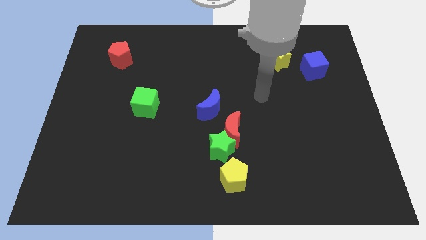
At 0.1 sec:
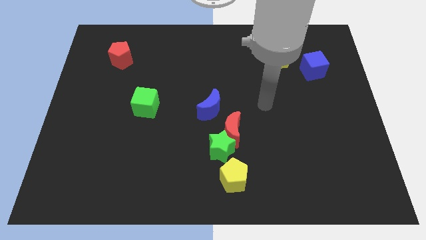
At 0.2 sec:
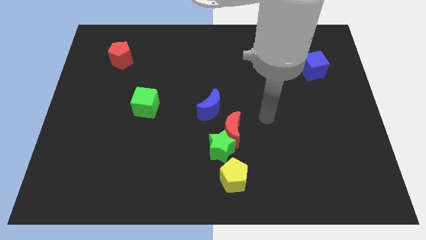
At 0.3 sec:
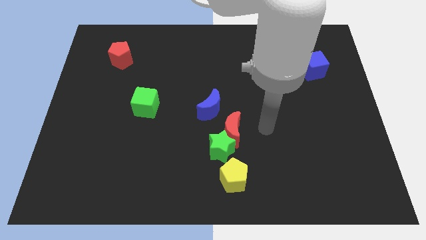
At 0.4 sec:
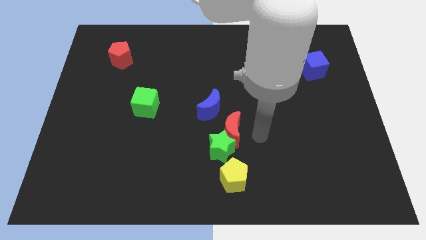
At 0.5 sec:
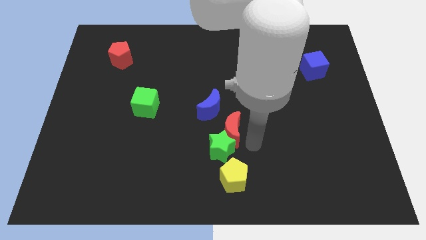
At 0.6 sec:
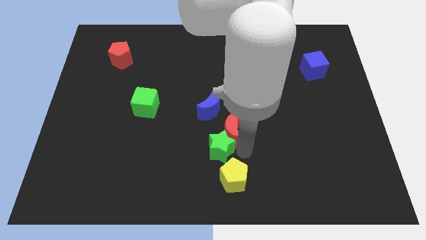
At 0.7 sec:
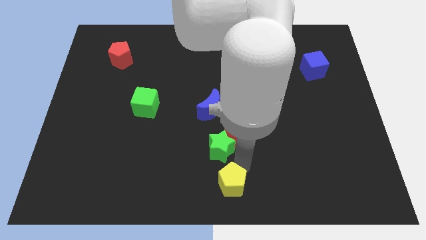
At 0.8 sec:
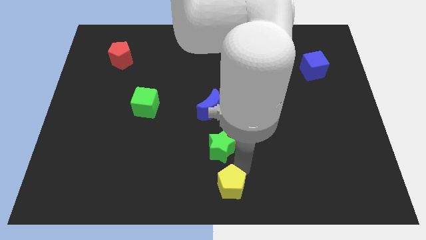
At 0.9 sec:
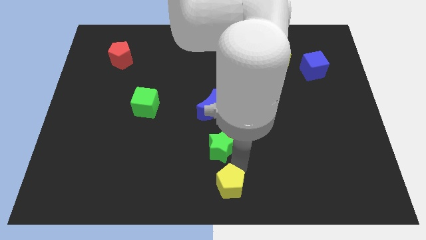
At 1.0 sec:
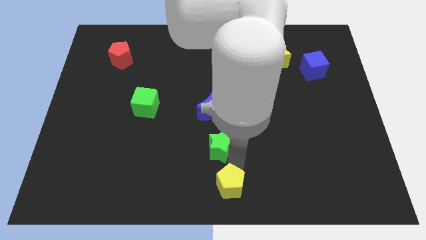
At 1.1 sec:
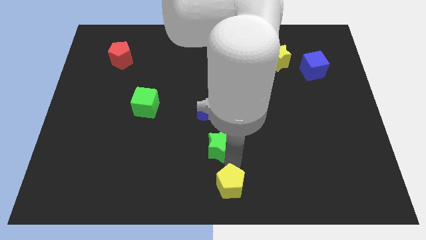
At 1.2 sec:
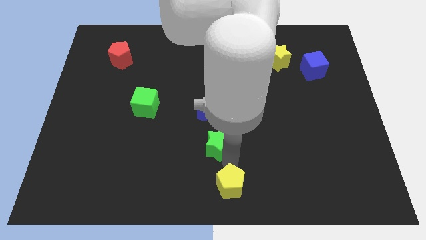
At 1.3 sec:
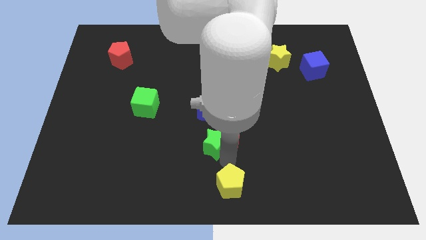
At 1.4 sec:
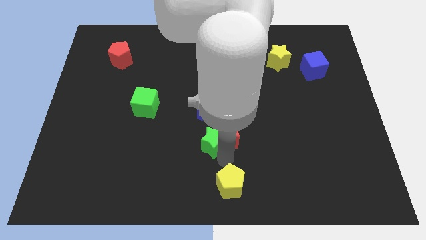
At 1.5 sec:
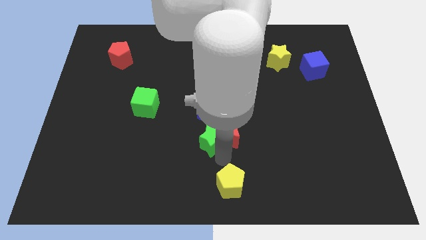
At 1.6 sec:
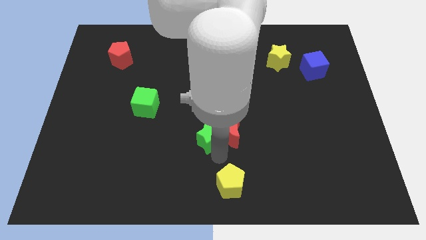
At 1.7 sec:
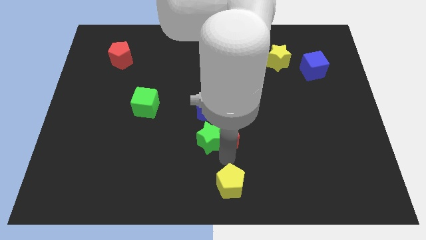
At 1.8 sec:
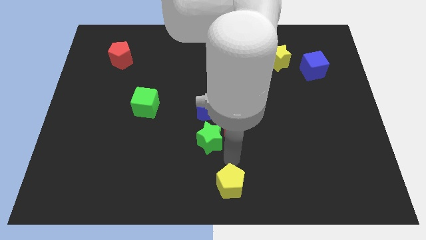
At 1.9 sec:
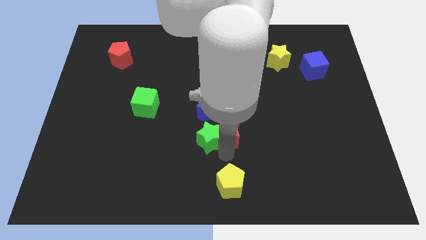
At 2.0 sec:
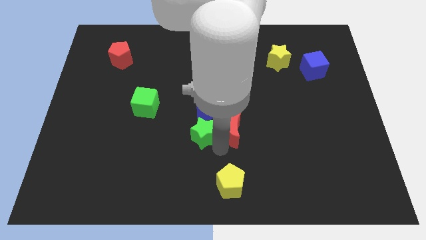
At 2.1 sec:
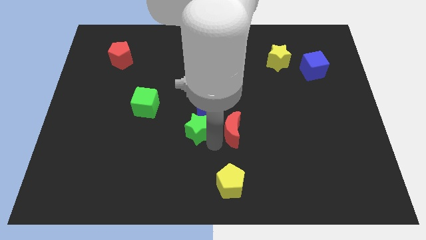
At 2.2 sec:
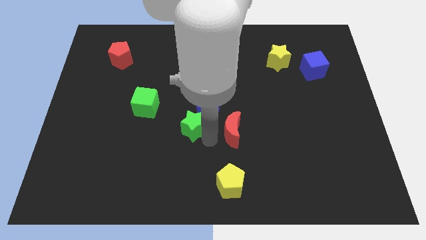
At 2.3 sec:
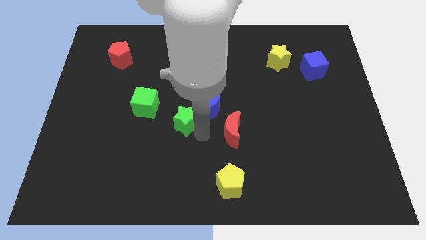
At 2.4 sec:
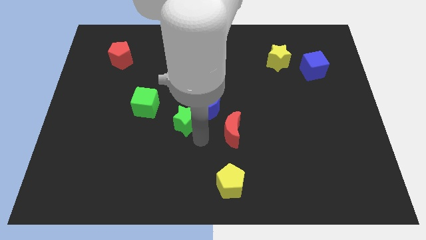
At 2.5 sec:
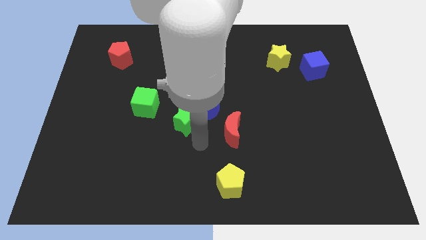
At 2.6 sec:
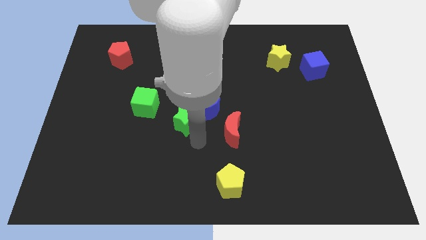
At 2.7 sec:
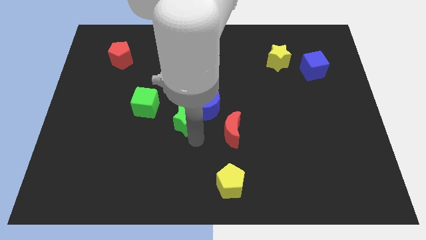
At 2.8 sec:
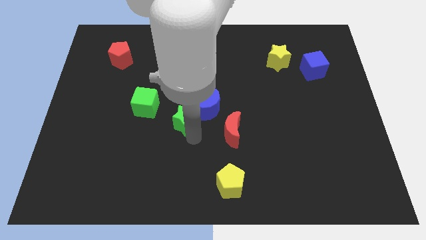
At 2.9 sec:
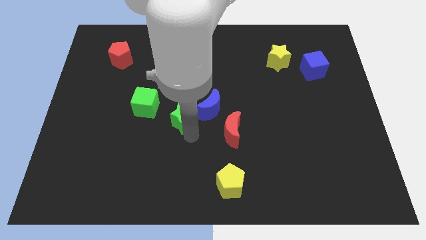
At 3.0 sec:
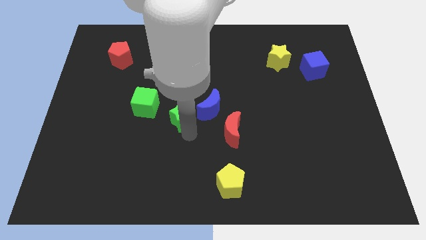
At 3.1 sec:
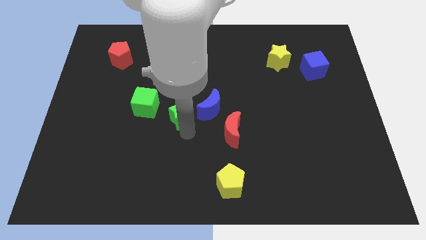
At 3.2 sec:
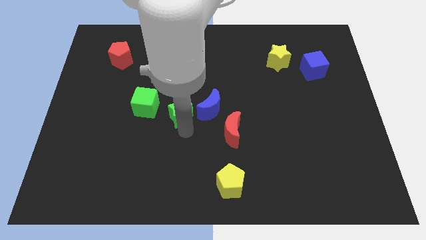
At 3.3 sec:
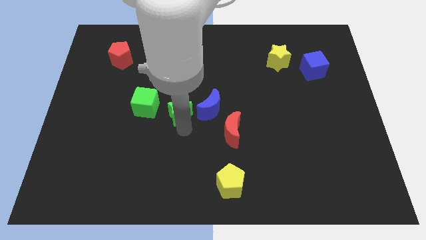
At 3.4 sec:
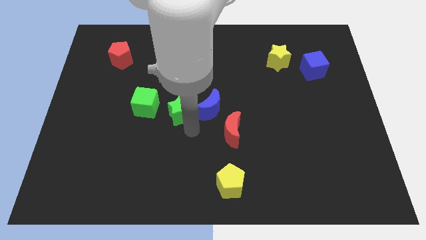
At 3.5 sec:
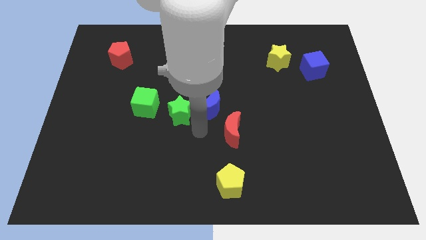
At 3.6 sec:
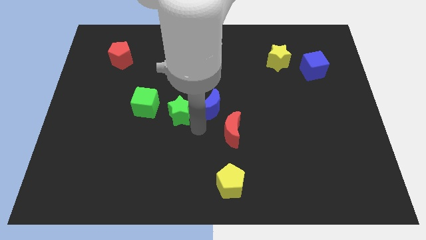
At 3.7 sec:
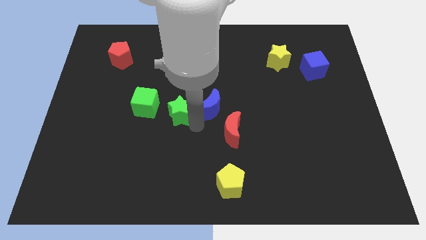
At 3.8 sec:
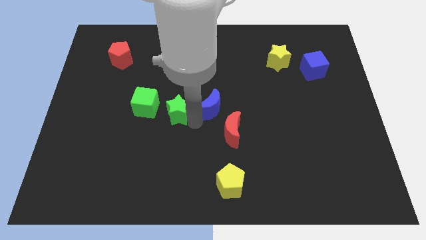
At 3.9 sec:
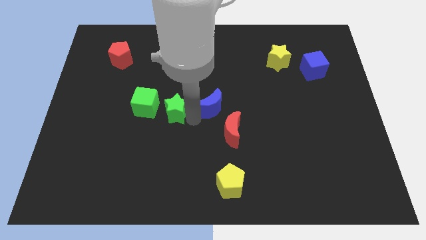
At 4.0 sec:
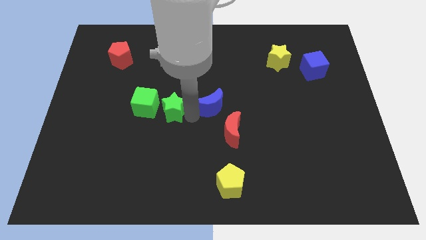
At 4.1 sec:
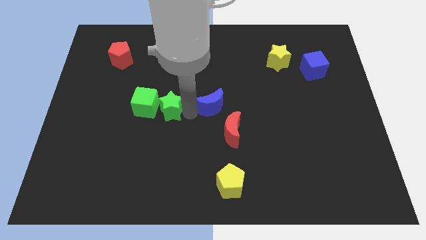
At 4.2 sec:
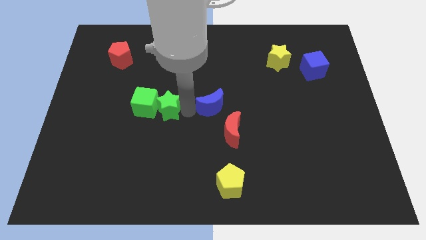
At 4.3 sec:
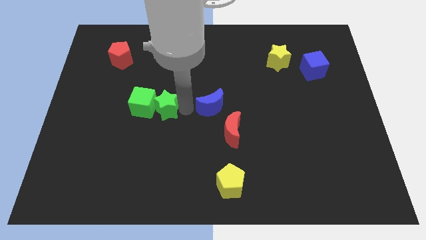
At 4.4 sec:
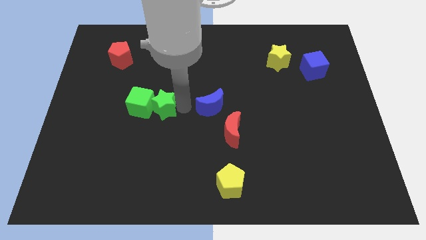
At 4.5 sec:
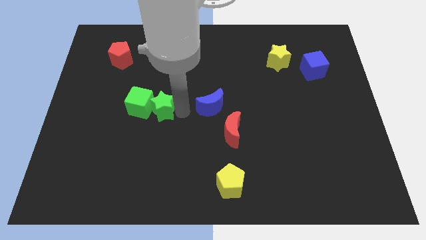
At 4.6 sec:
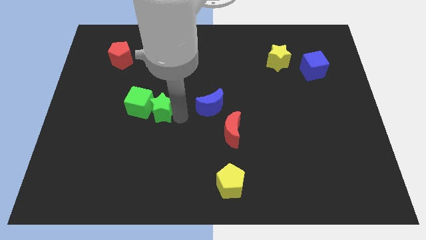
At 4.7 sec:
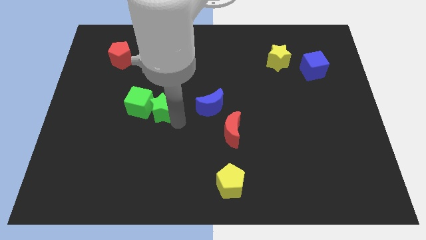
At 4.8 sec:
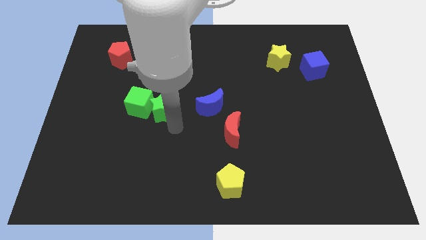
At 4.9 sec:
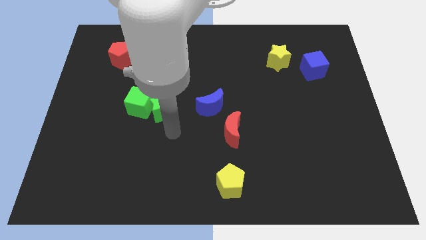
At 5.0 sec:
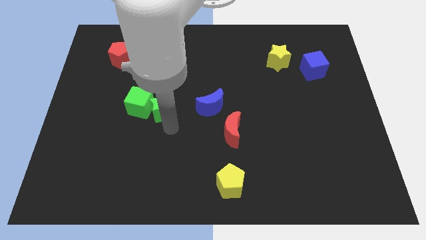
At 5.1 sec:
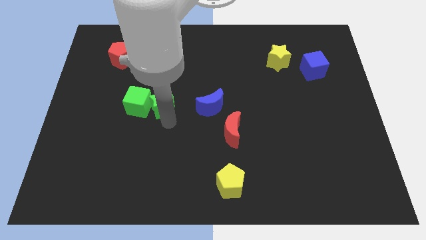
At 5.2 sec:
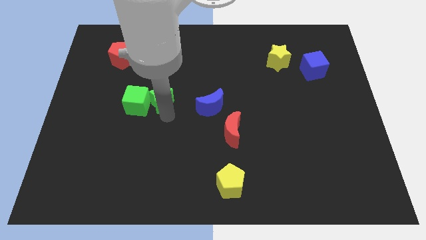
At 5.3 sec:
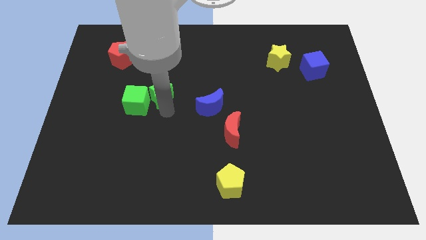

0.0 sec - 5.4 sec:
push the green star upwards and left diagonally

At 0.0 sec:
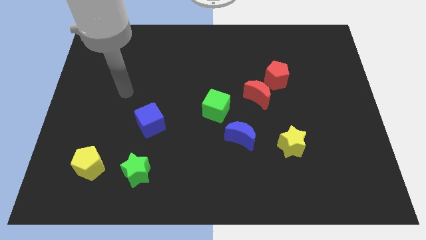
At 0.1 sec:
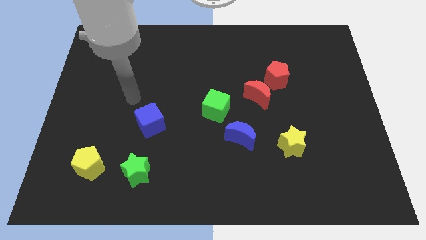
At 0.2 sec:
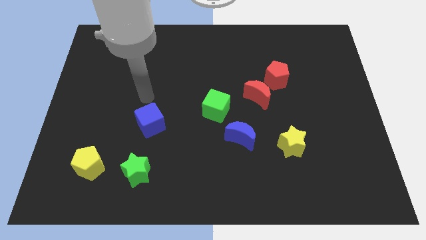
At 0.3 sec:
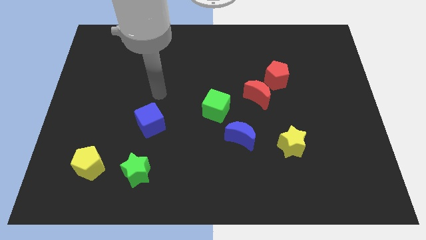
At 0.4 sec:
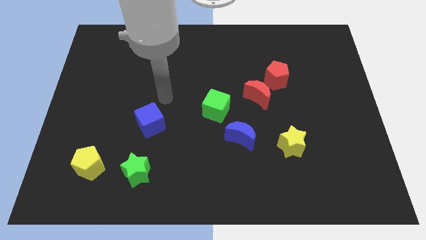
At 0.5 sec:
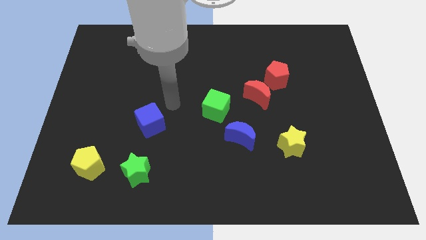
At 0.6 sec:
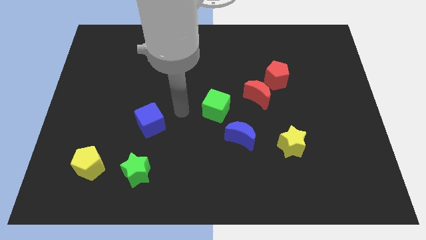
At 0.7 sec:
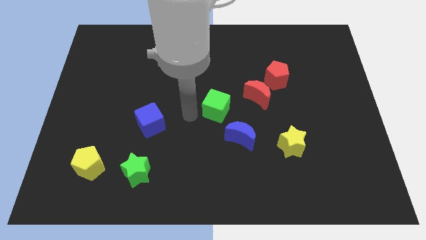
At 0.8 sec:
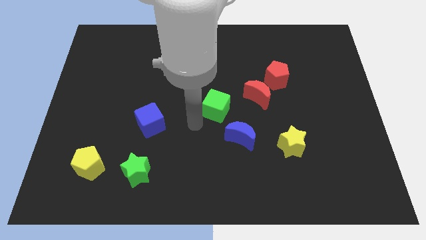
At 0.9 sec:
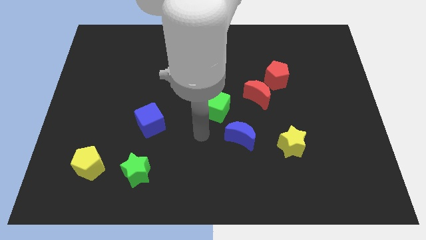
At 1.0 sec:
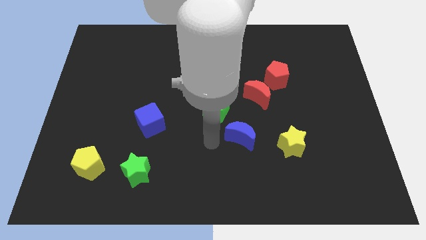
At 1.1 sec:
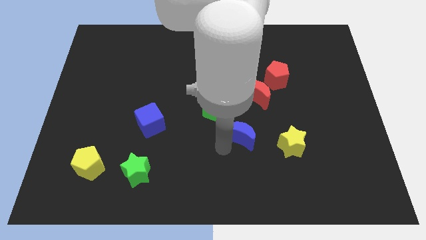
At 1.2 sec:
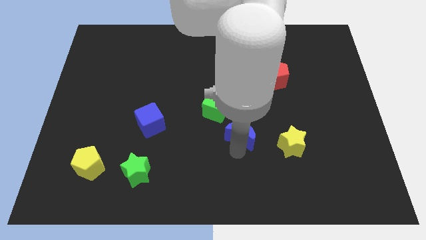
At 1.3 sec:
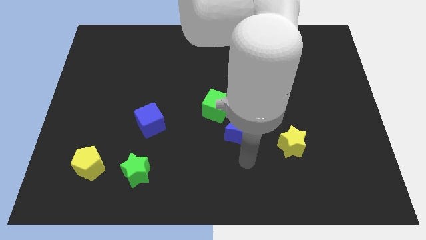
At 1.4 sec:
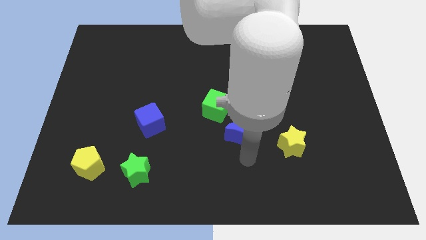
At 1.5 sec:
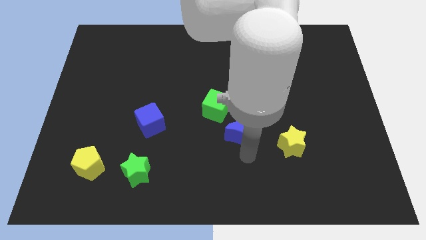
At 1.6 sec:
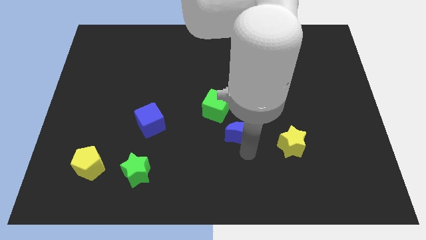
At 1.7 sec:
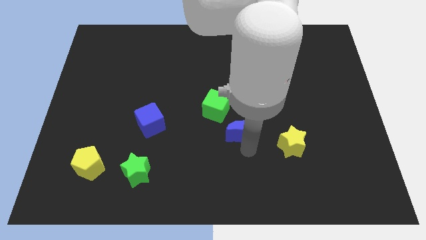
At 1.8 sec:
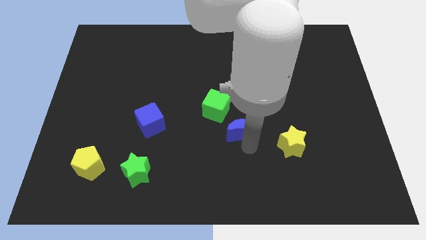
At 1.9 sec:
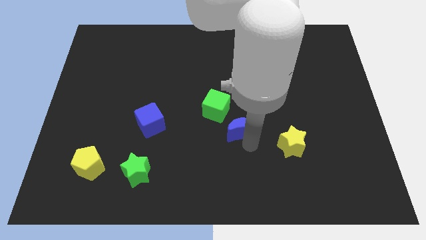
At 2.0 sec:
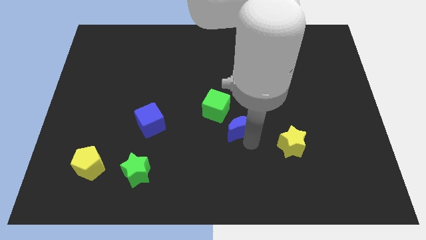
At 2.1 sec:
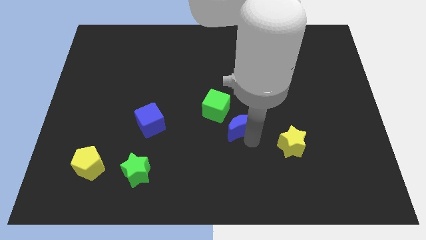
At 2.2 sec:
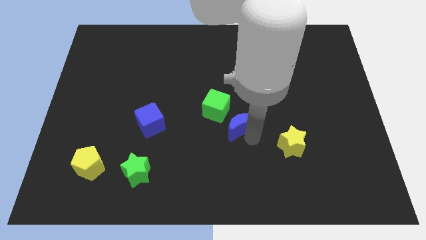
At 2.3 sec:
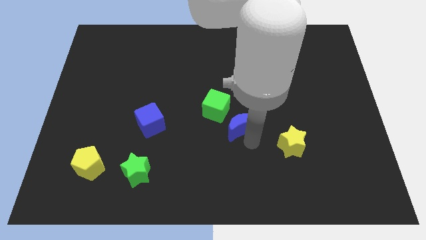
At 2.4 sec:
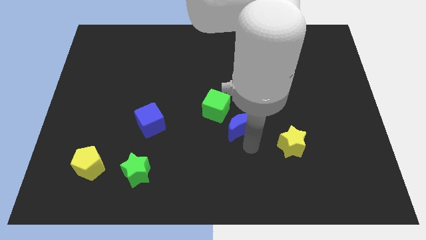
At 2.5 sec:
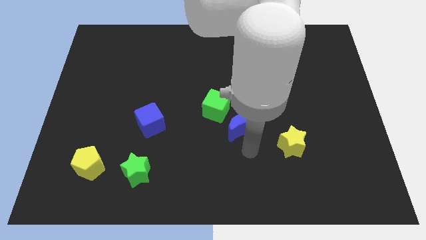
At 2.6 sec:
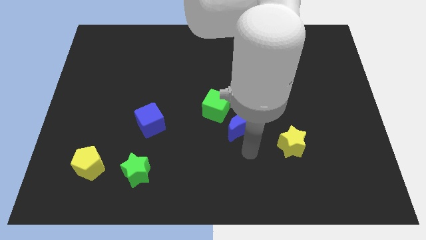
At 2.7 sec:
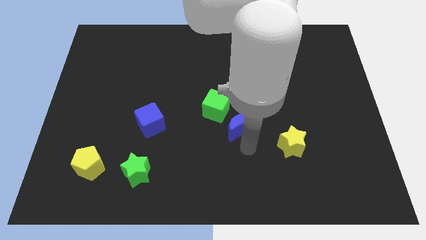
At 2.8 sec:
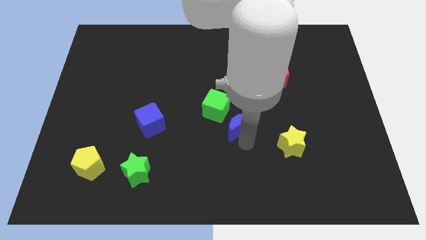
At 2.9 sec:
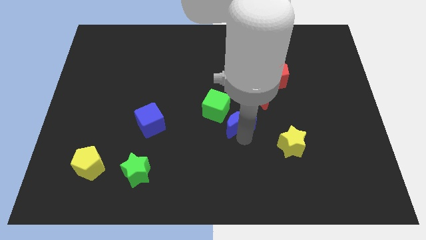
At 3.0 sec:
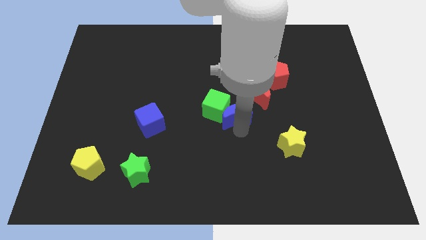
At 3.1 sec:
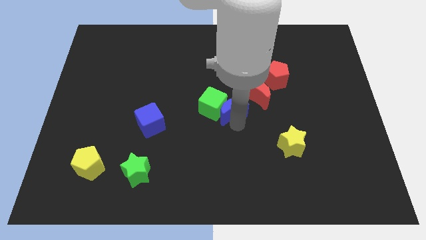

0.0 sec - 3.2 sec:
push the blue moon up a little bit
